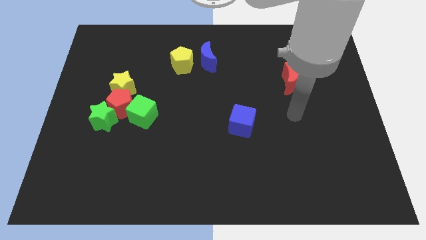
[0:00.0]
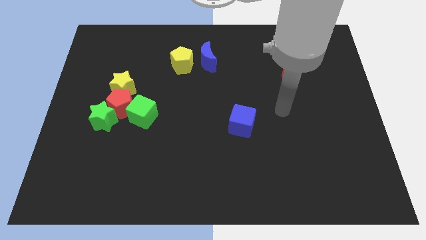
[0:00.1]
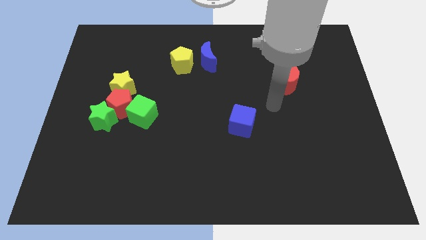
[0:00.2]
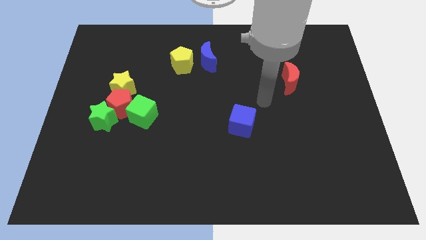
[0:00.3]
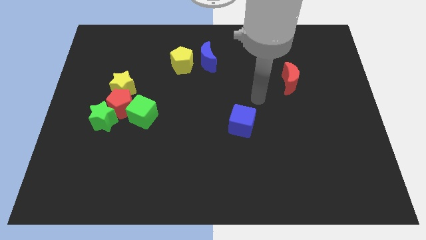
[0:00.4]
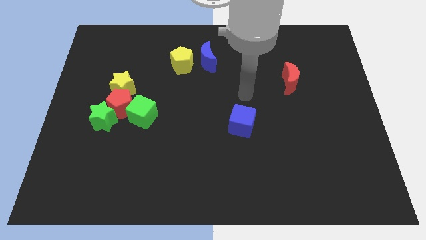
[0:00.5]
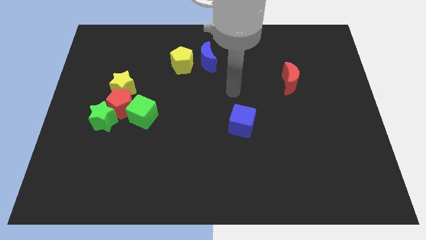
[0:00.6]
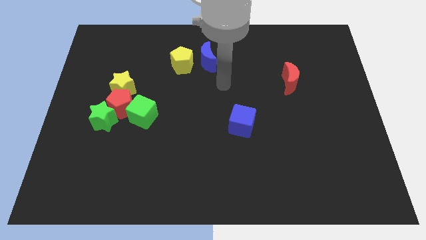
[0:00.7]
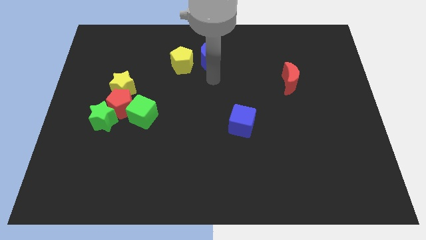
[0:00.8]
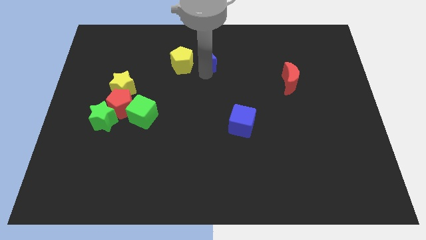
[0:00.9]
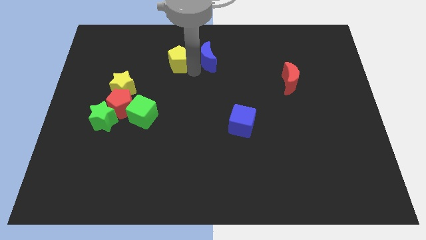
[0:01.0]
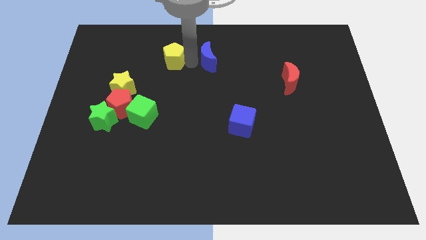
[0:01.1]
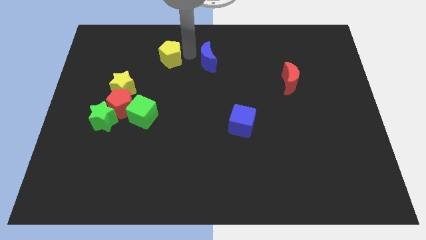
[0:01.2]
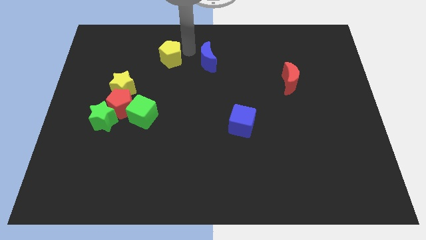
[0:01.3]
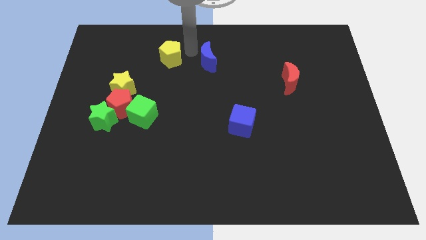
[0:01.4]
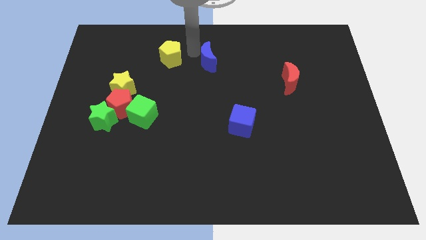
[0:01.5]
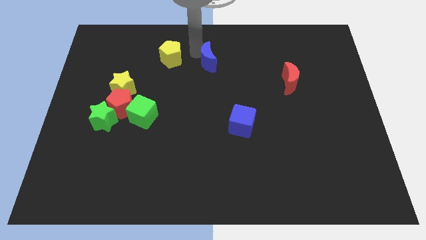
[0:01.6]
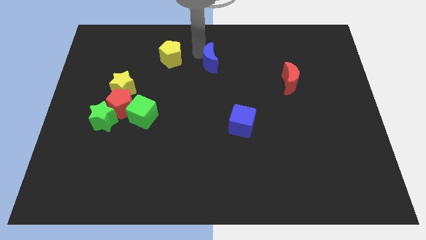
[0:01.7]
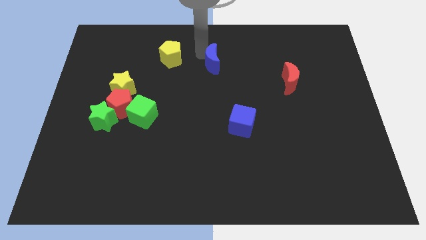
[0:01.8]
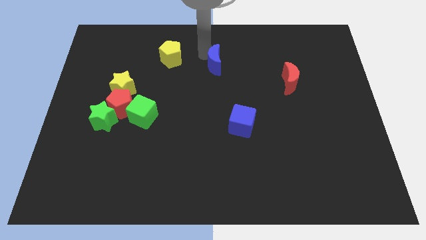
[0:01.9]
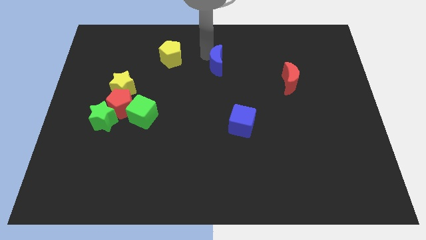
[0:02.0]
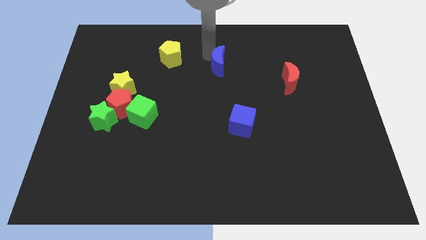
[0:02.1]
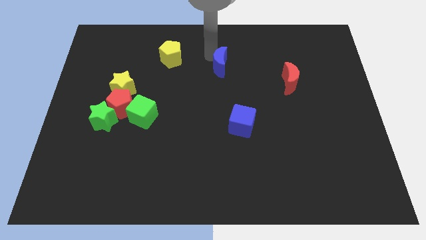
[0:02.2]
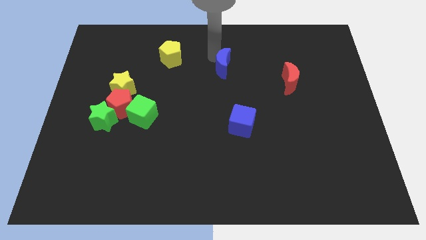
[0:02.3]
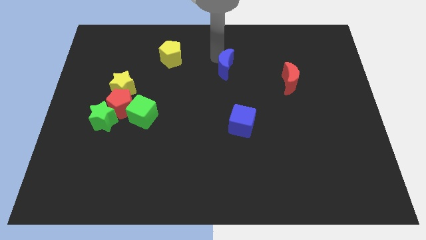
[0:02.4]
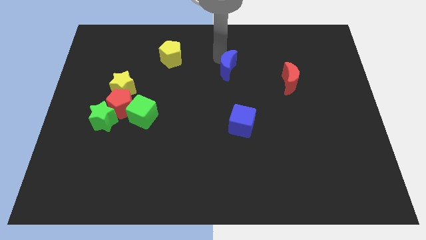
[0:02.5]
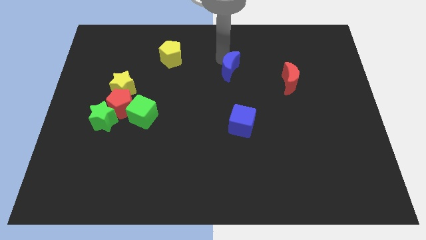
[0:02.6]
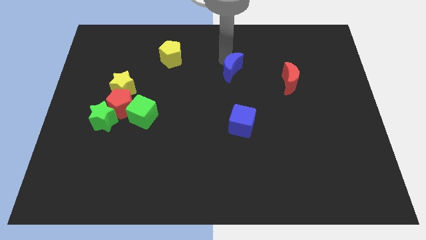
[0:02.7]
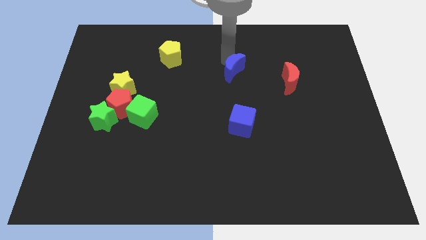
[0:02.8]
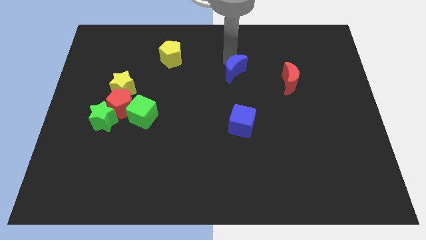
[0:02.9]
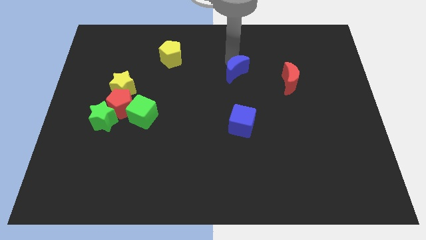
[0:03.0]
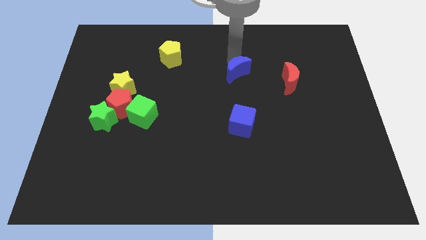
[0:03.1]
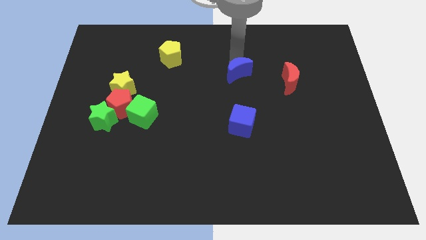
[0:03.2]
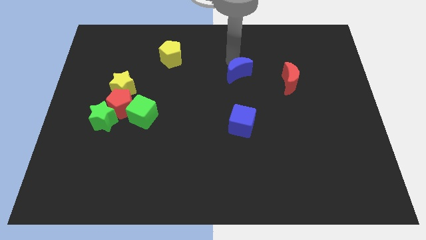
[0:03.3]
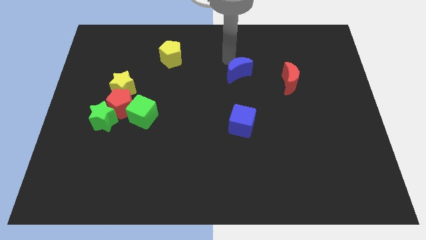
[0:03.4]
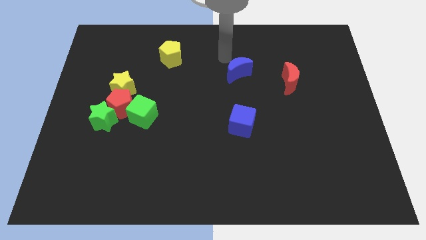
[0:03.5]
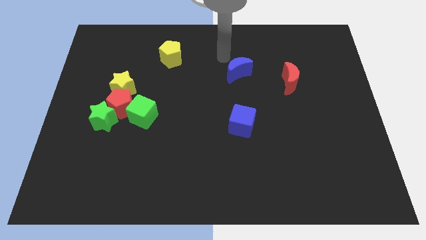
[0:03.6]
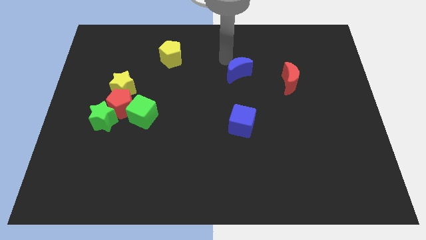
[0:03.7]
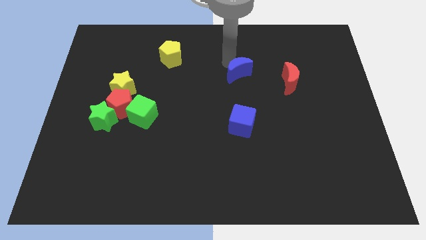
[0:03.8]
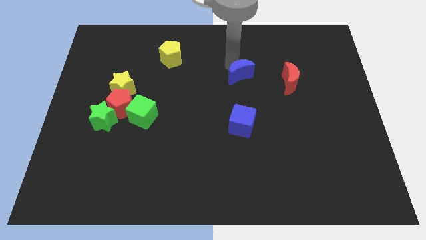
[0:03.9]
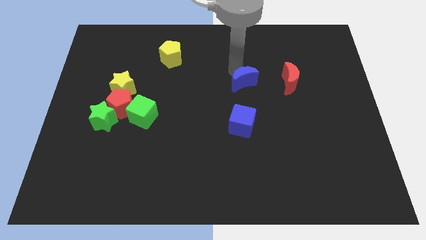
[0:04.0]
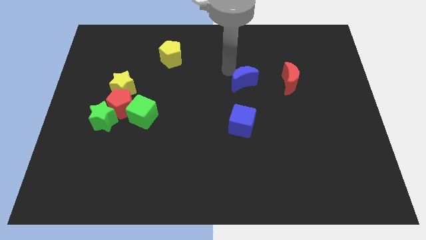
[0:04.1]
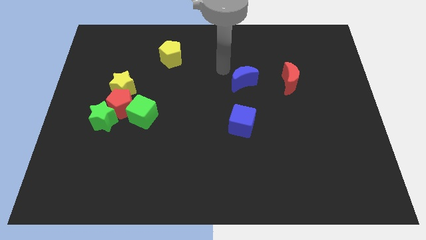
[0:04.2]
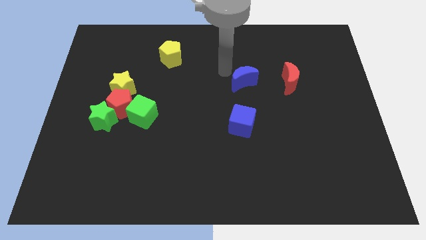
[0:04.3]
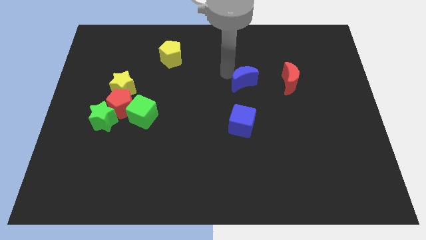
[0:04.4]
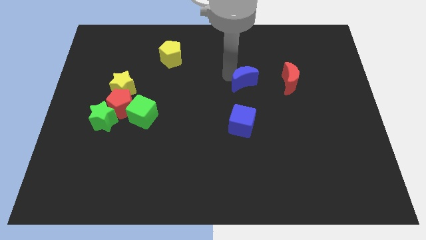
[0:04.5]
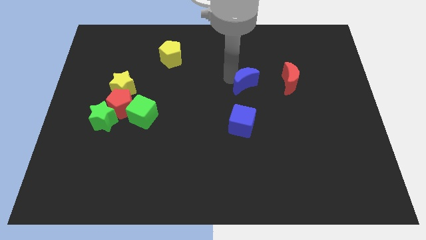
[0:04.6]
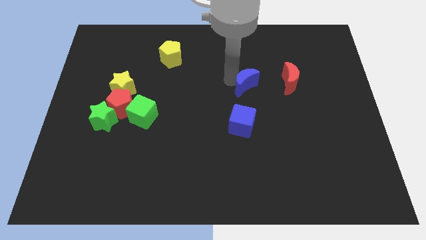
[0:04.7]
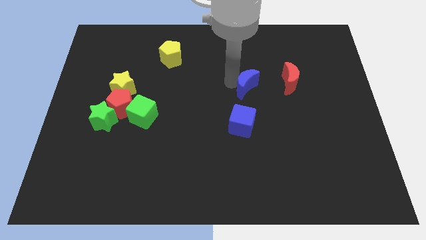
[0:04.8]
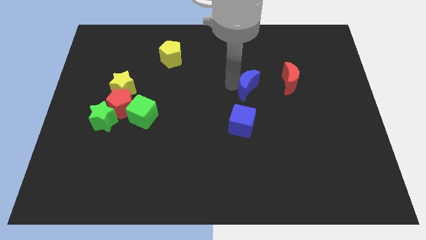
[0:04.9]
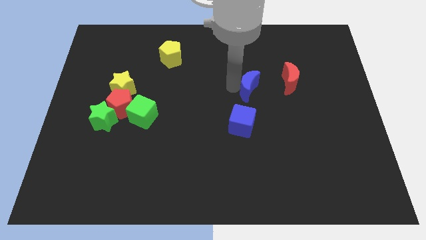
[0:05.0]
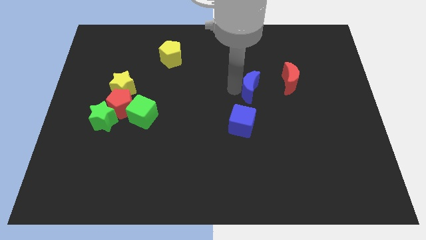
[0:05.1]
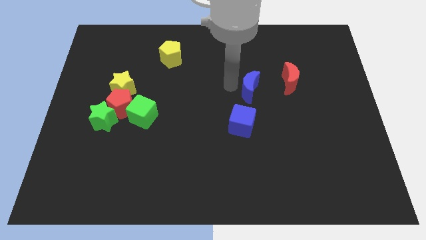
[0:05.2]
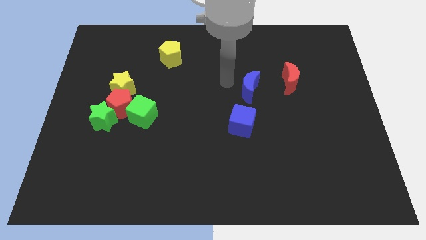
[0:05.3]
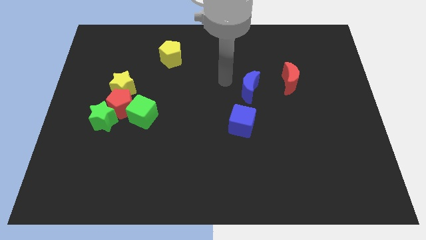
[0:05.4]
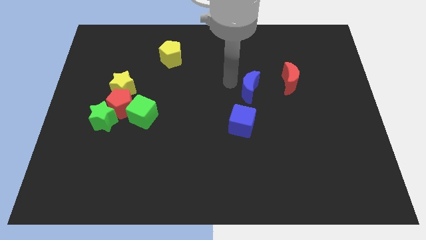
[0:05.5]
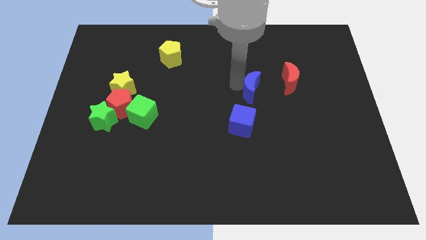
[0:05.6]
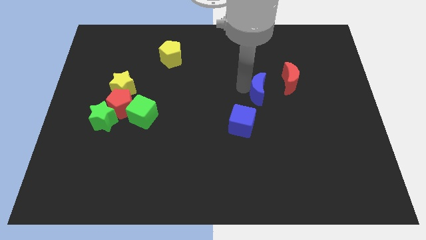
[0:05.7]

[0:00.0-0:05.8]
slide the blue moon to the bottom left of the red moon
